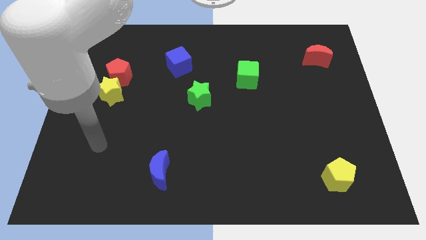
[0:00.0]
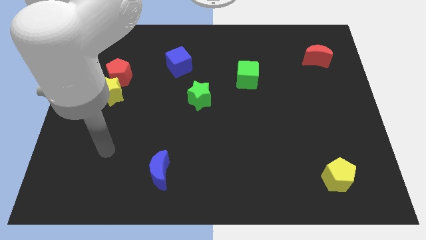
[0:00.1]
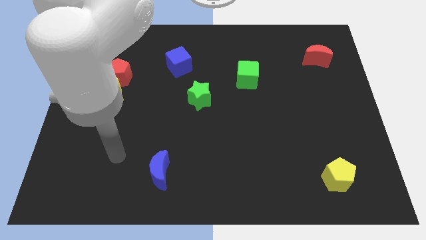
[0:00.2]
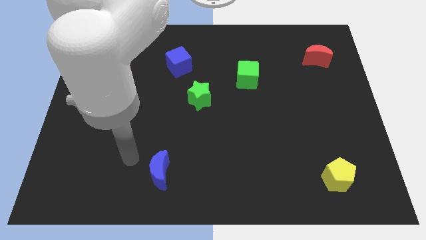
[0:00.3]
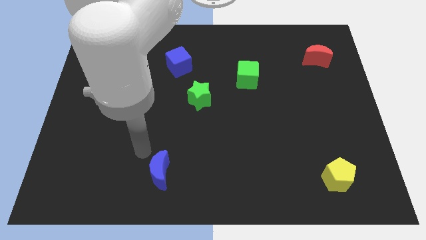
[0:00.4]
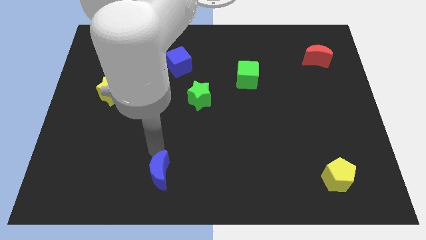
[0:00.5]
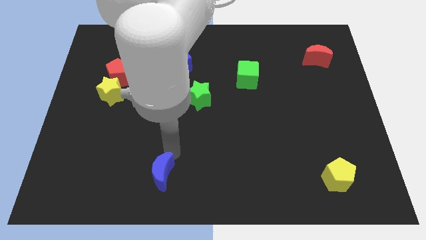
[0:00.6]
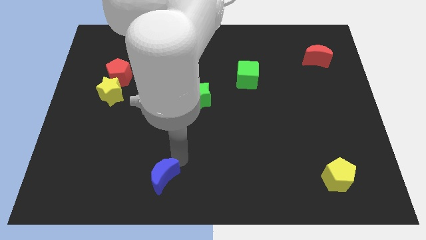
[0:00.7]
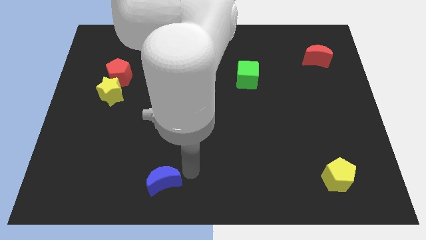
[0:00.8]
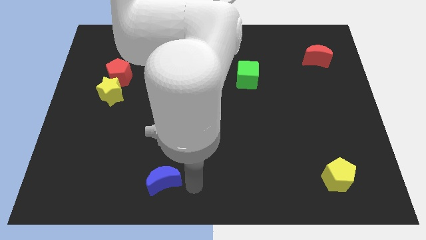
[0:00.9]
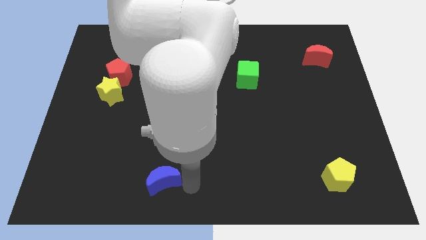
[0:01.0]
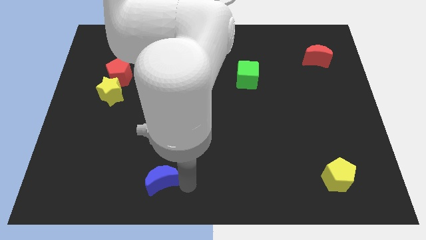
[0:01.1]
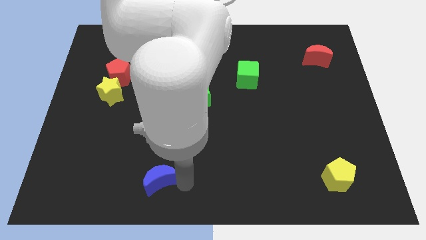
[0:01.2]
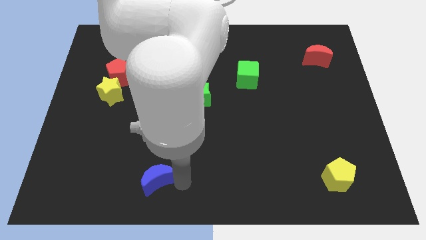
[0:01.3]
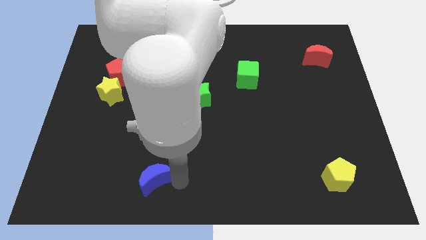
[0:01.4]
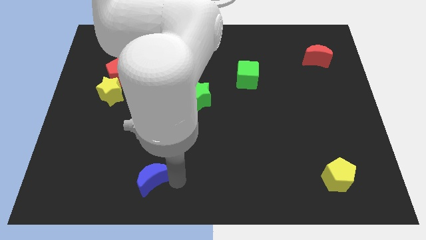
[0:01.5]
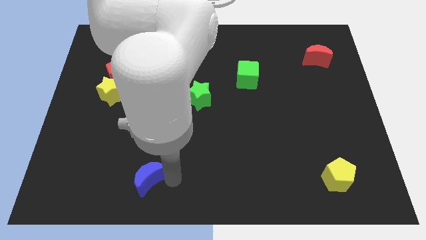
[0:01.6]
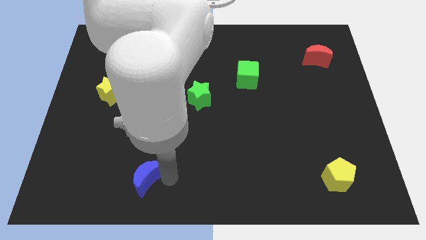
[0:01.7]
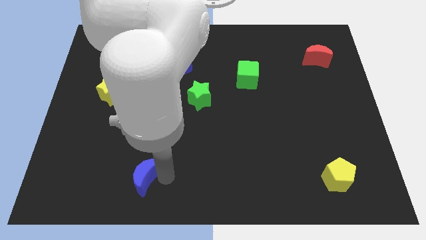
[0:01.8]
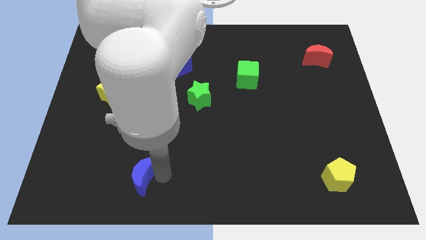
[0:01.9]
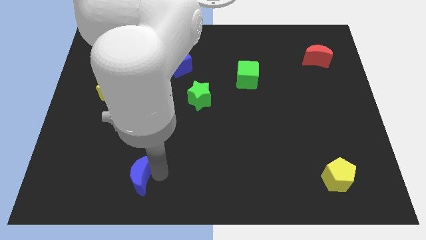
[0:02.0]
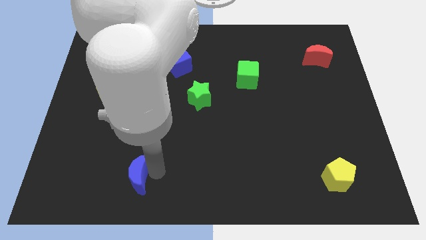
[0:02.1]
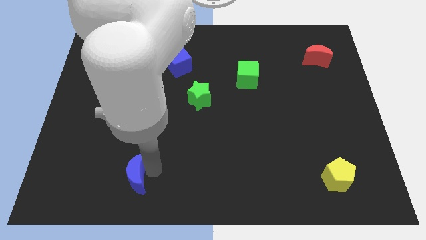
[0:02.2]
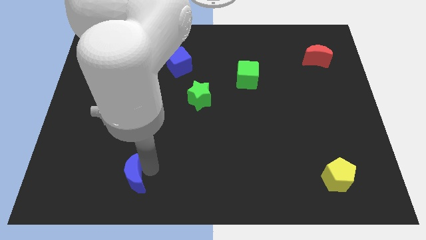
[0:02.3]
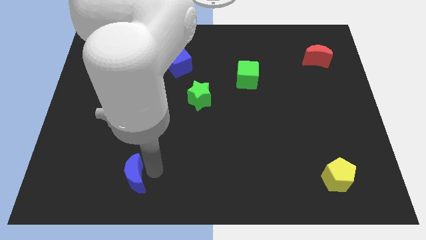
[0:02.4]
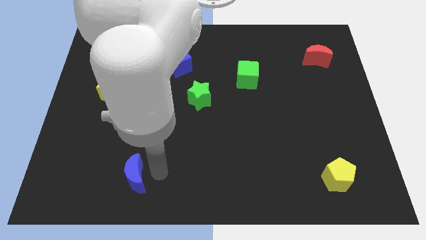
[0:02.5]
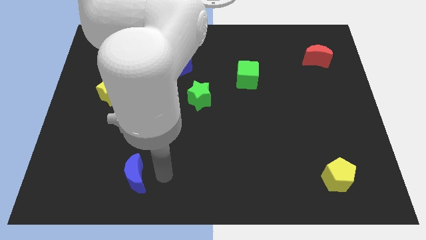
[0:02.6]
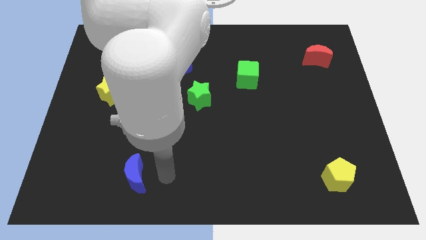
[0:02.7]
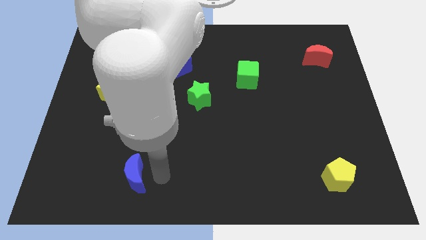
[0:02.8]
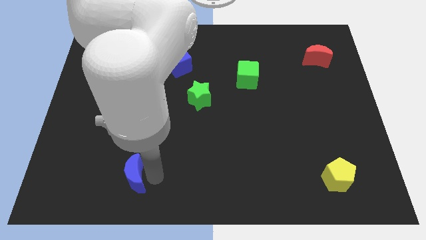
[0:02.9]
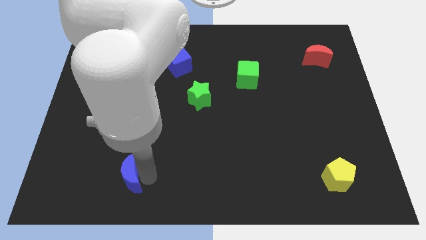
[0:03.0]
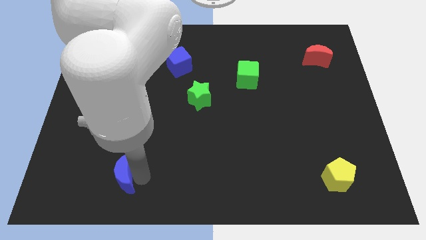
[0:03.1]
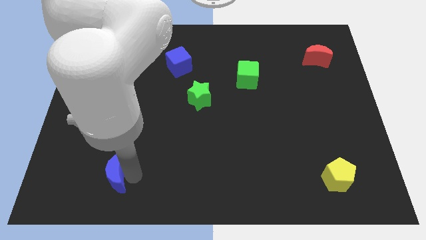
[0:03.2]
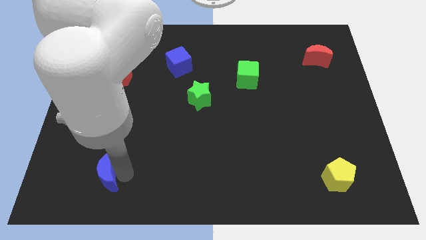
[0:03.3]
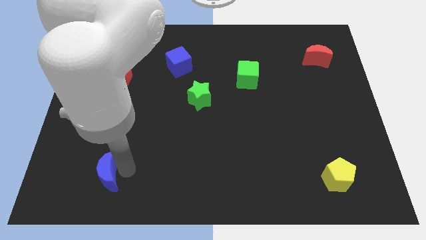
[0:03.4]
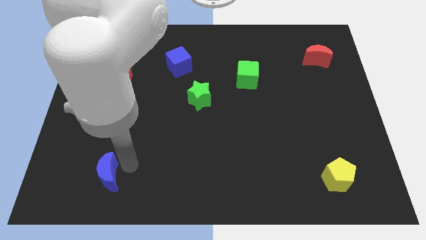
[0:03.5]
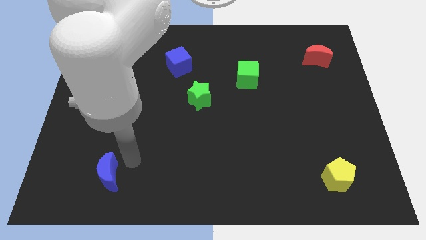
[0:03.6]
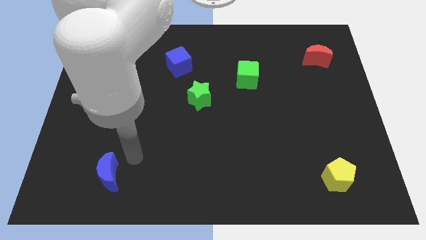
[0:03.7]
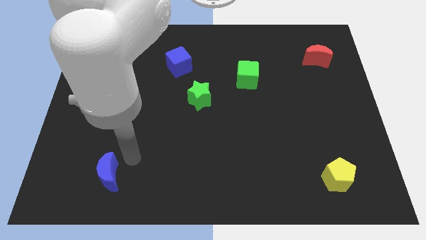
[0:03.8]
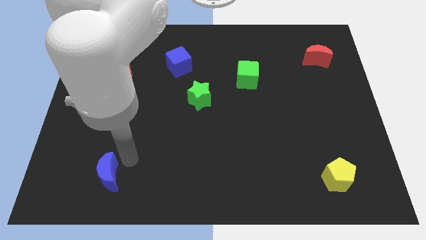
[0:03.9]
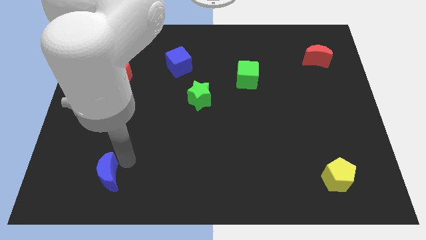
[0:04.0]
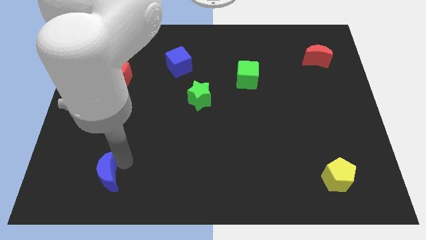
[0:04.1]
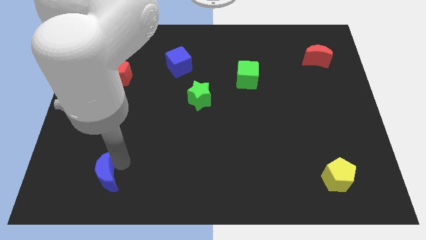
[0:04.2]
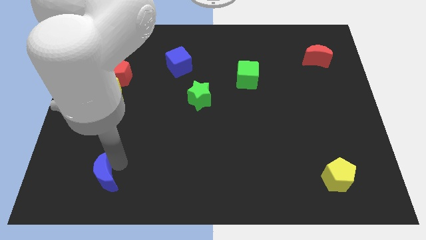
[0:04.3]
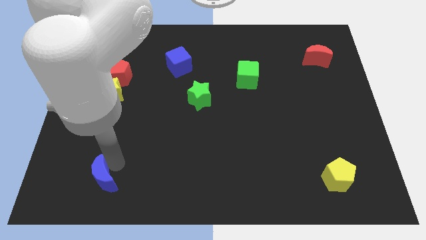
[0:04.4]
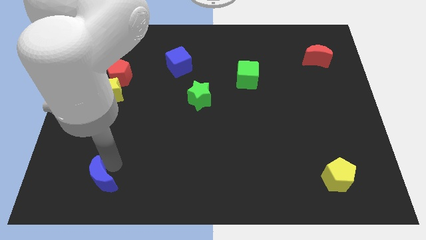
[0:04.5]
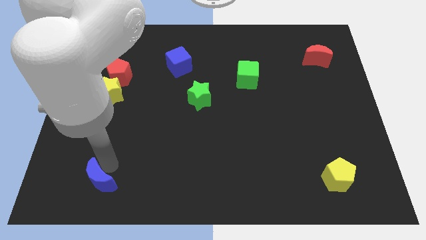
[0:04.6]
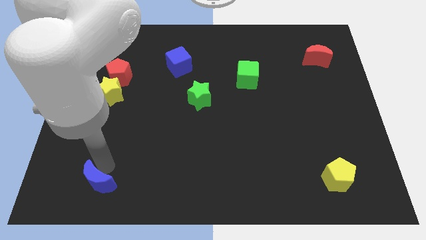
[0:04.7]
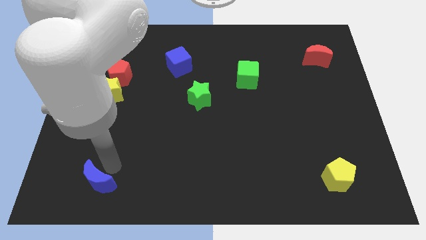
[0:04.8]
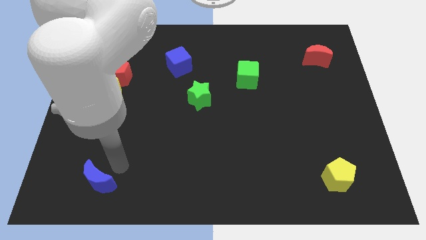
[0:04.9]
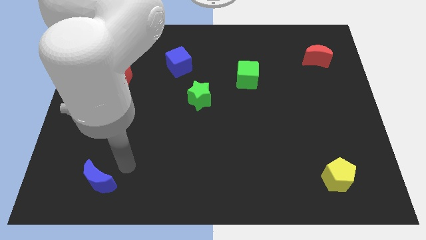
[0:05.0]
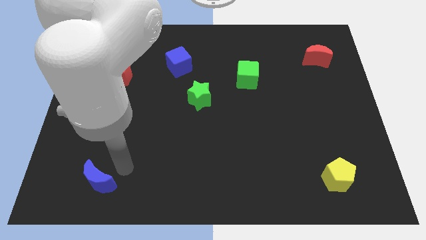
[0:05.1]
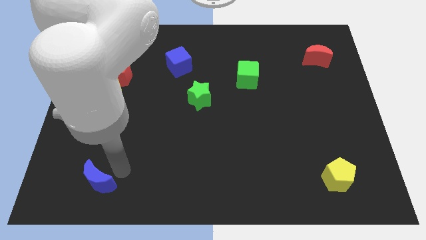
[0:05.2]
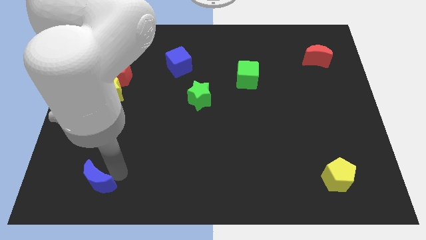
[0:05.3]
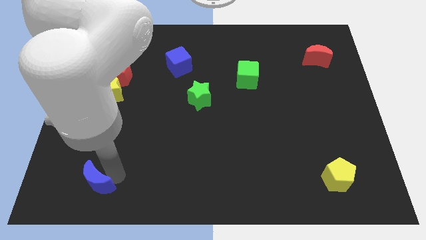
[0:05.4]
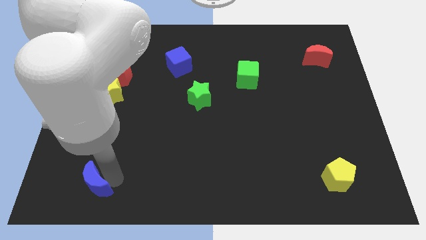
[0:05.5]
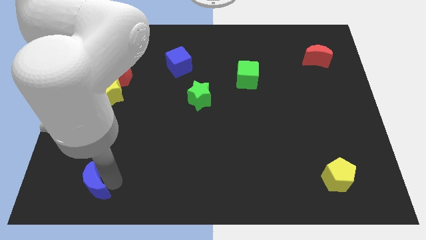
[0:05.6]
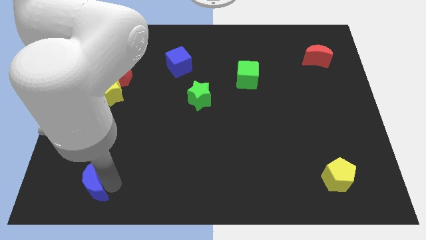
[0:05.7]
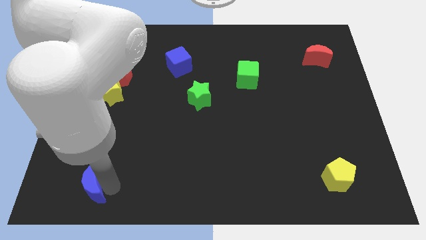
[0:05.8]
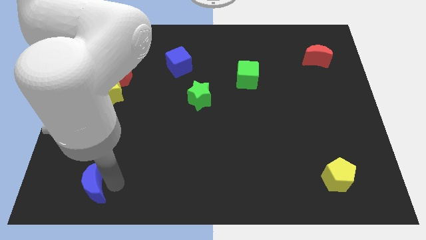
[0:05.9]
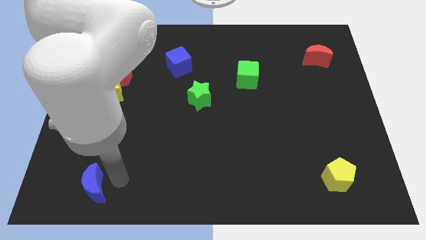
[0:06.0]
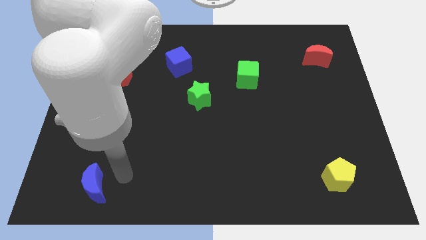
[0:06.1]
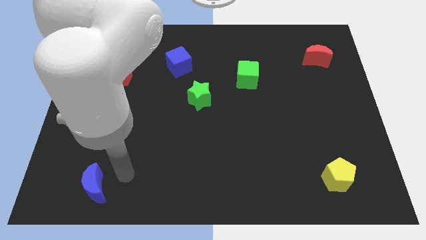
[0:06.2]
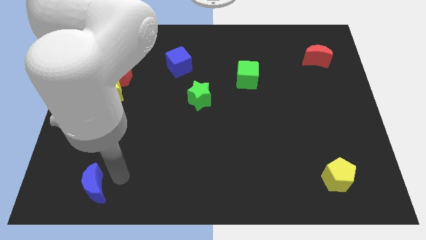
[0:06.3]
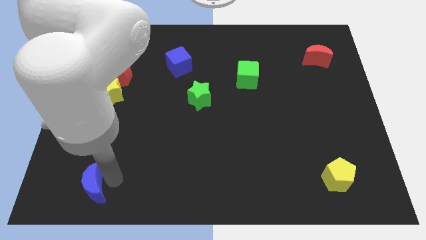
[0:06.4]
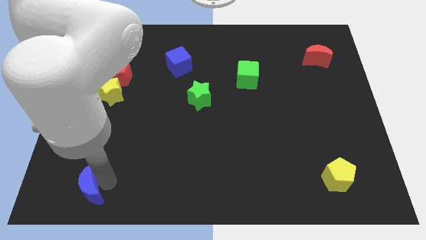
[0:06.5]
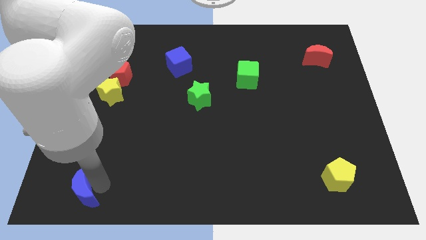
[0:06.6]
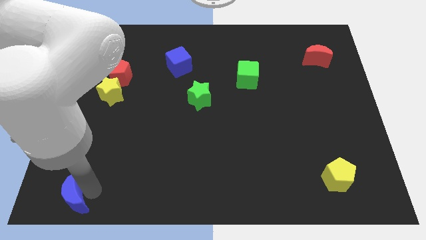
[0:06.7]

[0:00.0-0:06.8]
put the blue moon to the bottom left of the board
